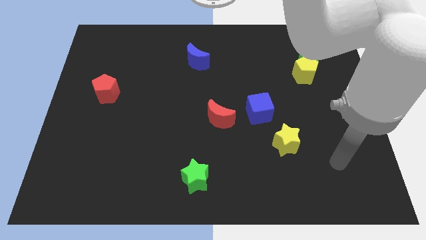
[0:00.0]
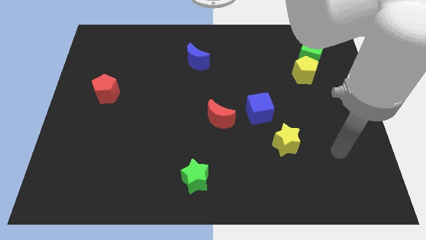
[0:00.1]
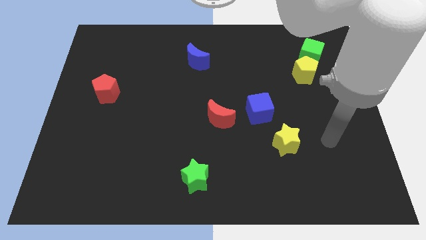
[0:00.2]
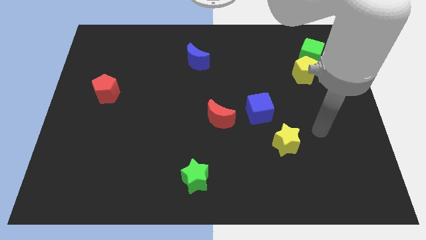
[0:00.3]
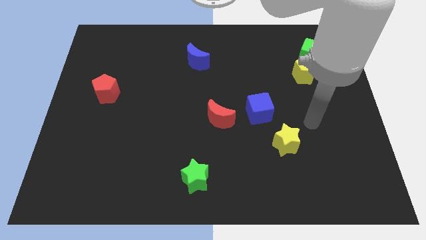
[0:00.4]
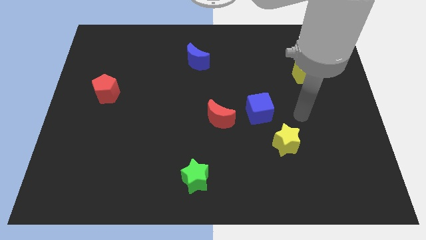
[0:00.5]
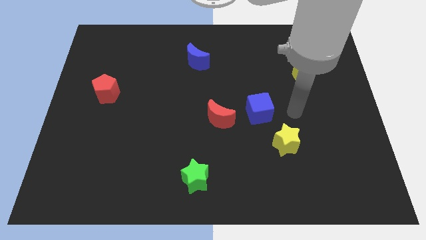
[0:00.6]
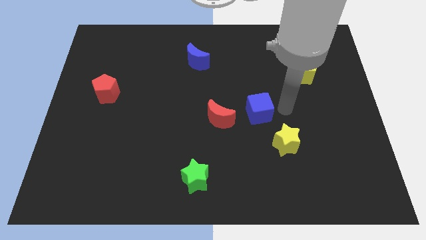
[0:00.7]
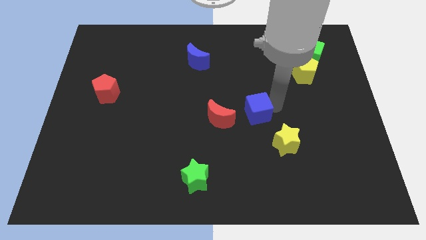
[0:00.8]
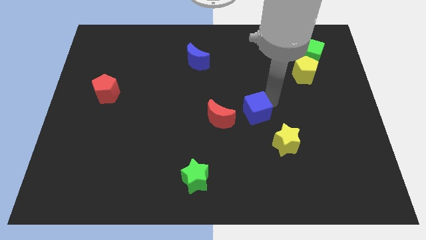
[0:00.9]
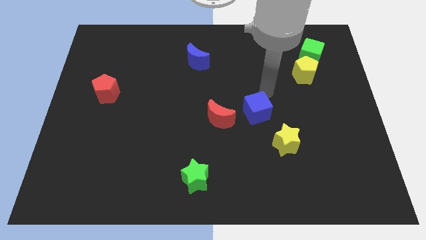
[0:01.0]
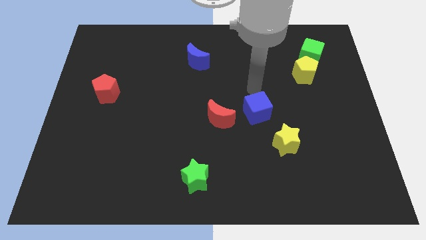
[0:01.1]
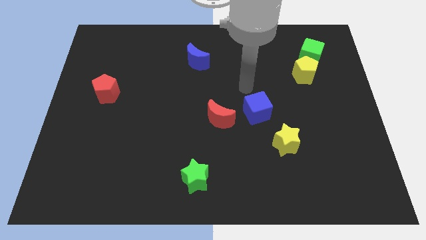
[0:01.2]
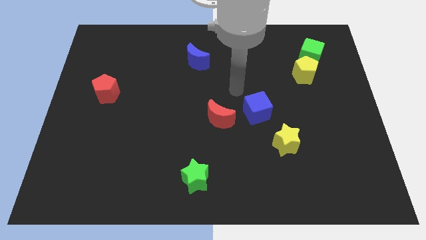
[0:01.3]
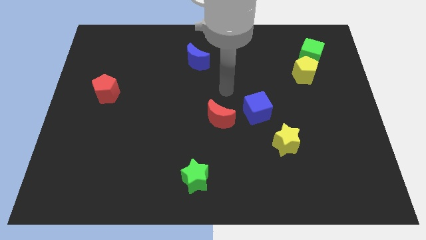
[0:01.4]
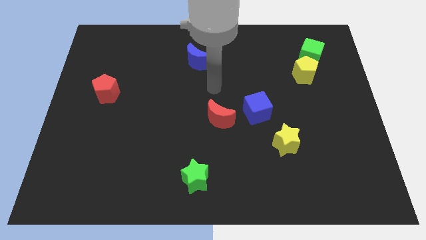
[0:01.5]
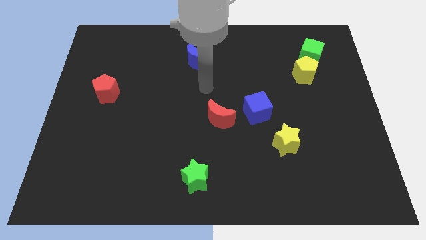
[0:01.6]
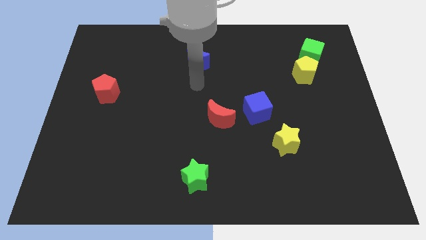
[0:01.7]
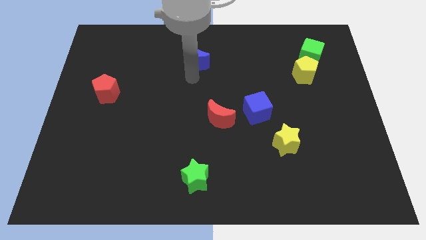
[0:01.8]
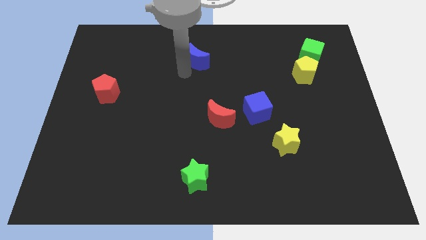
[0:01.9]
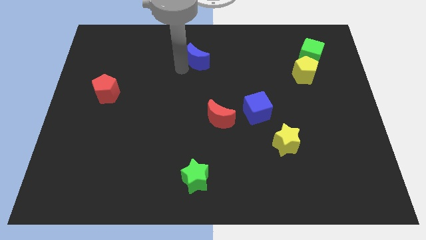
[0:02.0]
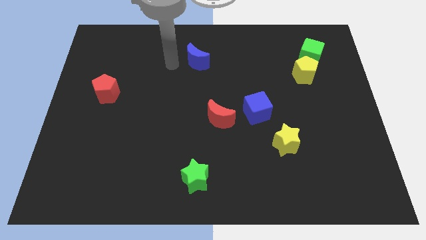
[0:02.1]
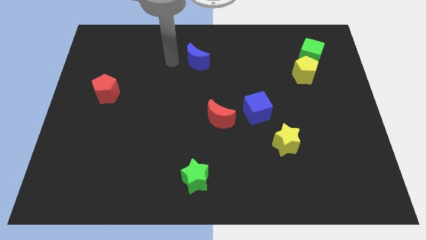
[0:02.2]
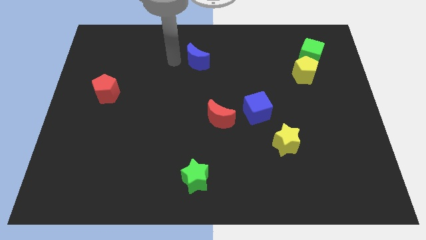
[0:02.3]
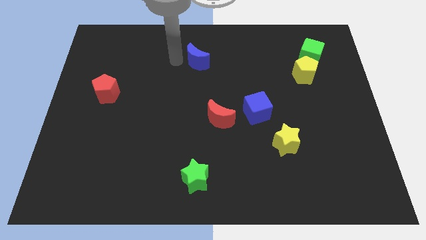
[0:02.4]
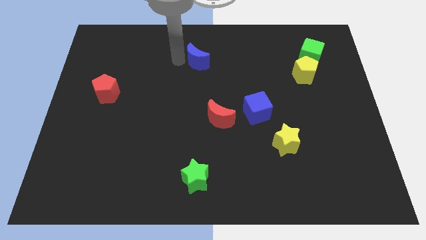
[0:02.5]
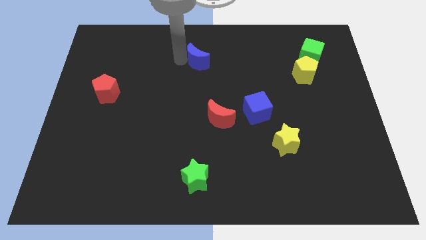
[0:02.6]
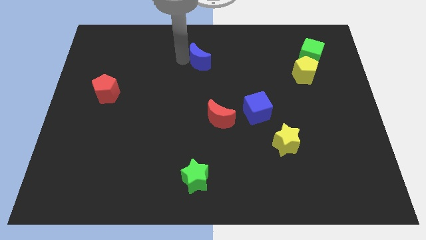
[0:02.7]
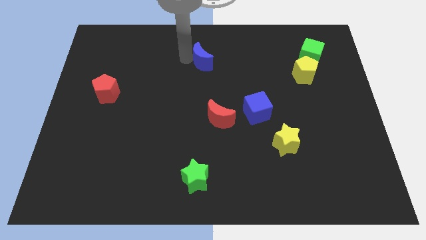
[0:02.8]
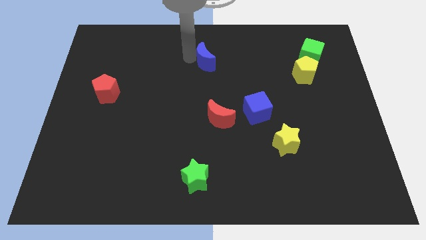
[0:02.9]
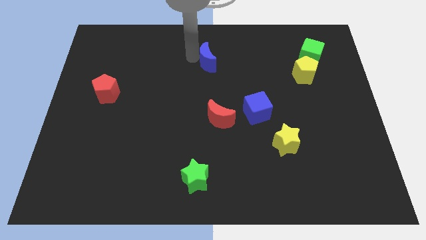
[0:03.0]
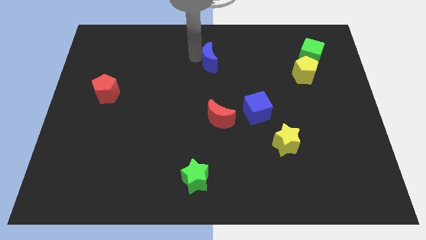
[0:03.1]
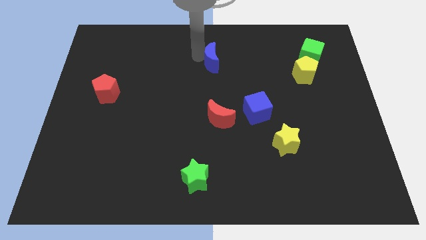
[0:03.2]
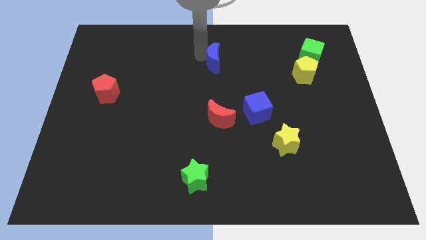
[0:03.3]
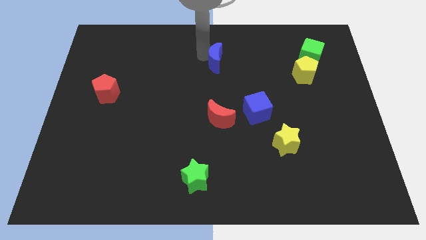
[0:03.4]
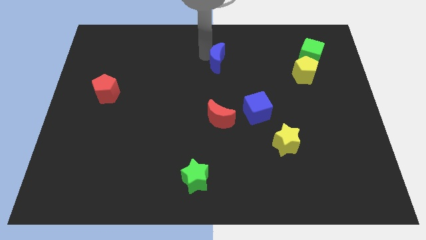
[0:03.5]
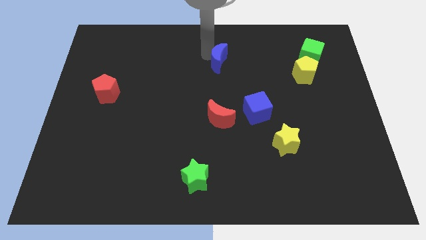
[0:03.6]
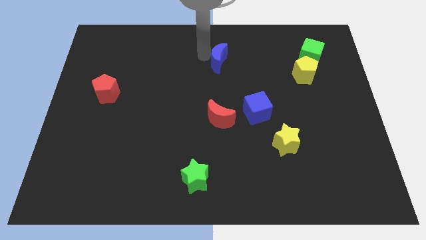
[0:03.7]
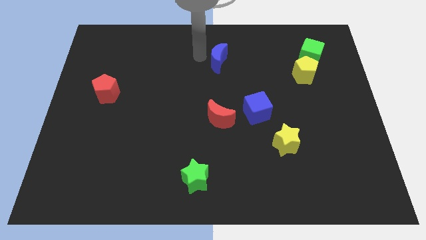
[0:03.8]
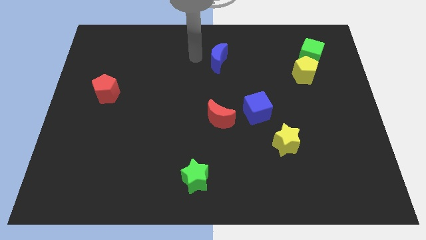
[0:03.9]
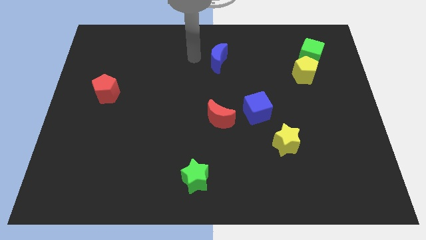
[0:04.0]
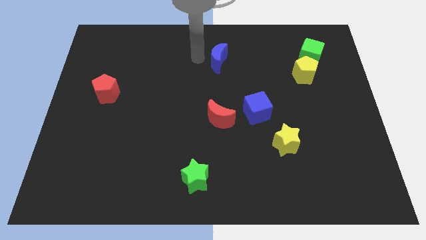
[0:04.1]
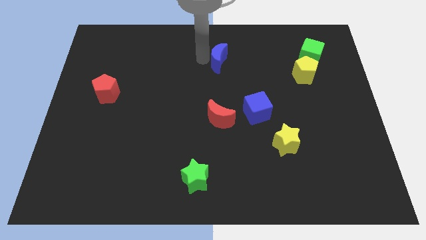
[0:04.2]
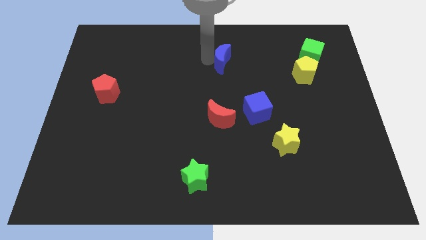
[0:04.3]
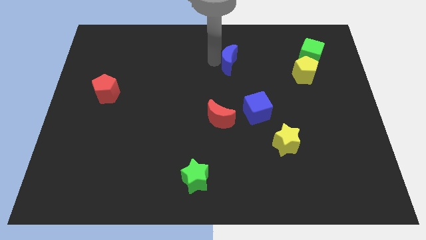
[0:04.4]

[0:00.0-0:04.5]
slide the blue moon a bit to the right

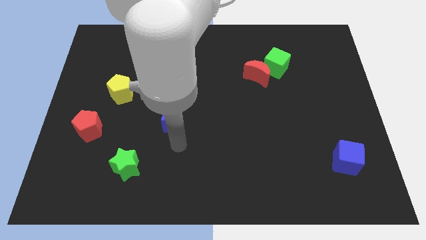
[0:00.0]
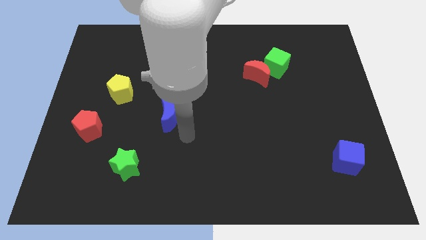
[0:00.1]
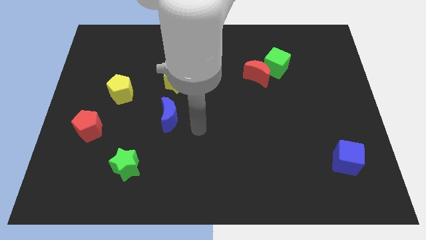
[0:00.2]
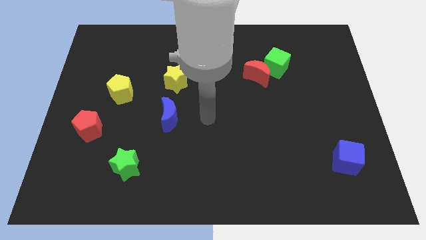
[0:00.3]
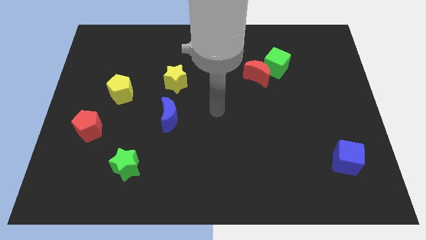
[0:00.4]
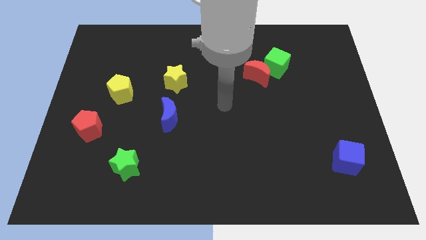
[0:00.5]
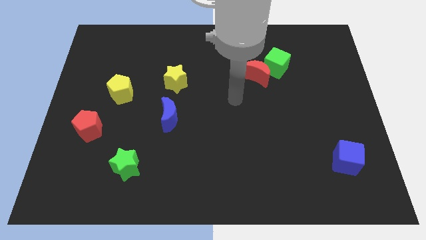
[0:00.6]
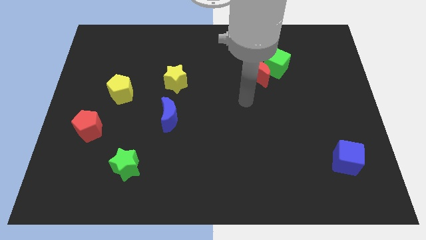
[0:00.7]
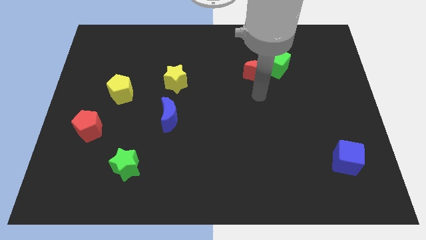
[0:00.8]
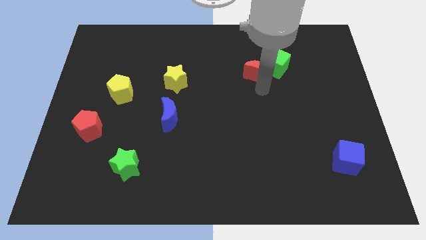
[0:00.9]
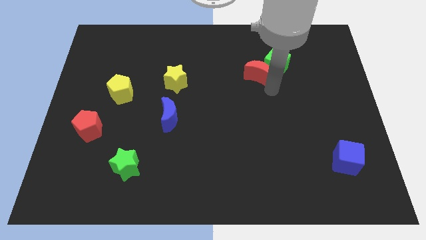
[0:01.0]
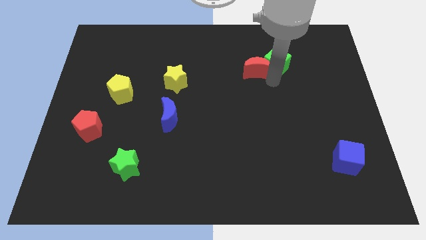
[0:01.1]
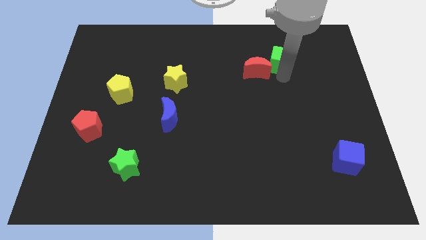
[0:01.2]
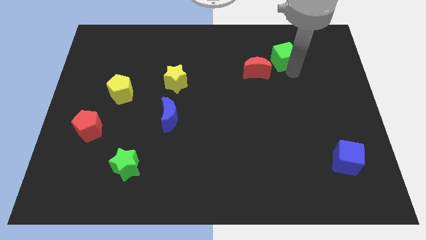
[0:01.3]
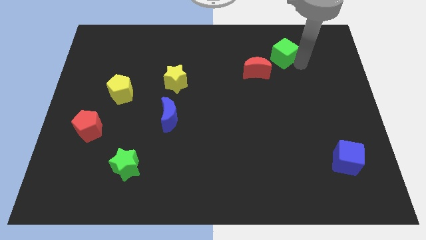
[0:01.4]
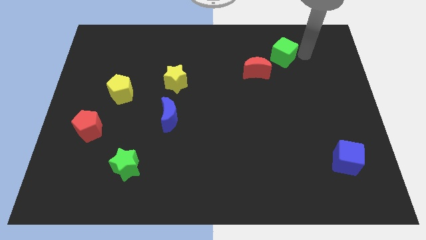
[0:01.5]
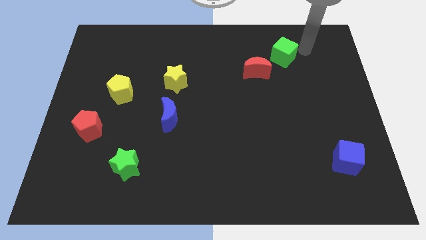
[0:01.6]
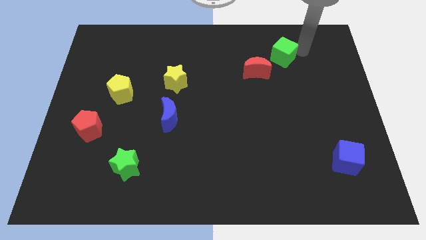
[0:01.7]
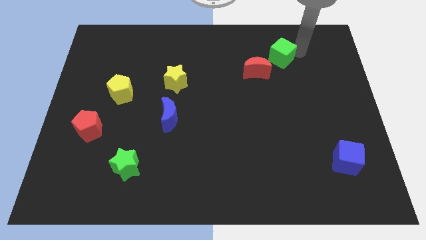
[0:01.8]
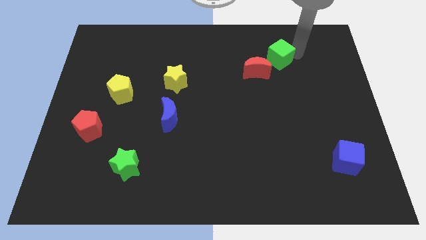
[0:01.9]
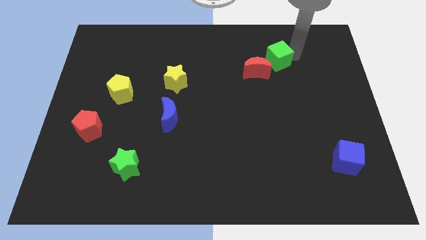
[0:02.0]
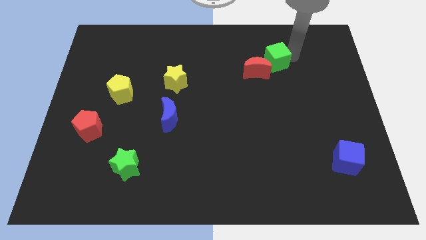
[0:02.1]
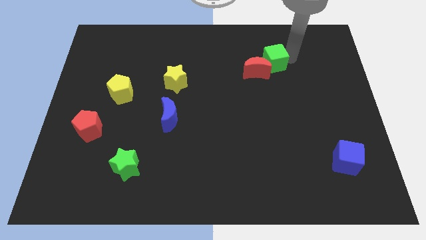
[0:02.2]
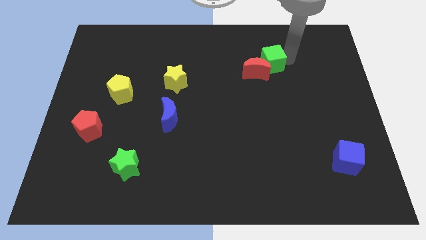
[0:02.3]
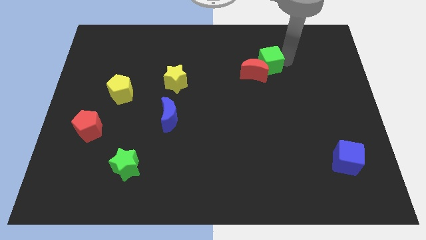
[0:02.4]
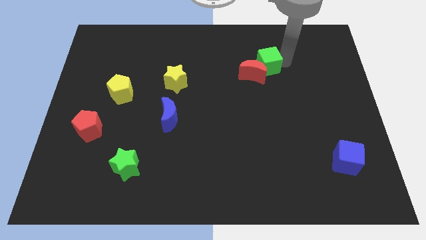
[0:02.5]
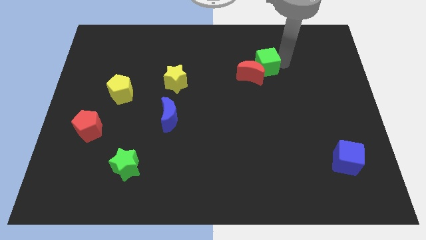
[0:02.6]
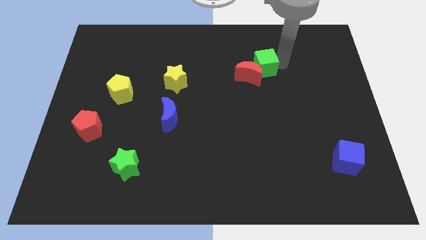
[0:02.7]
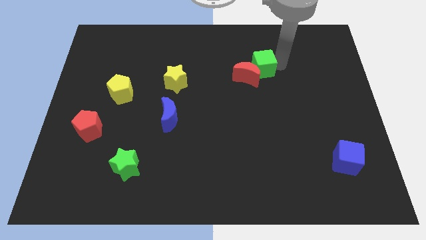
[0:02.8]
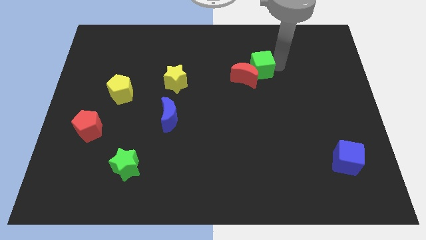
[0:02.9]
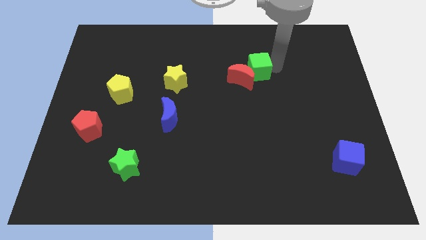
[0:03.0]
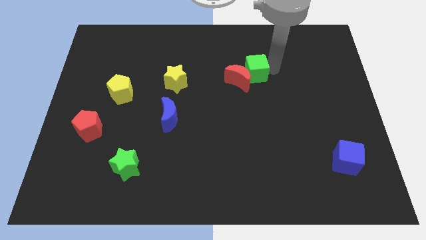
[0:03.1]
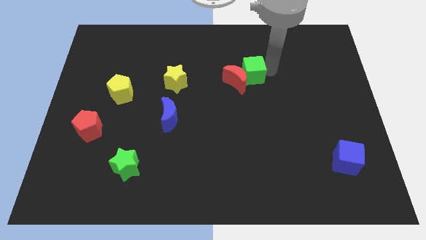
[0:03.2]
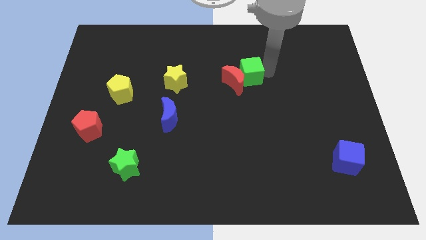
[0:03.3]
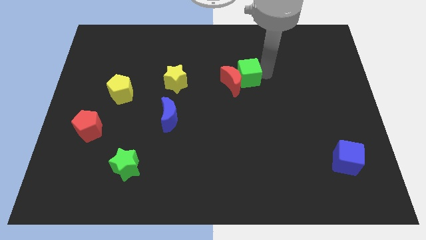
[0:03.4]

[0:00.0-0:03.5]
slightly move the green cube to the left
